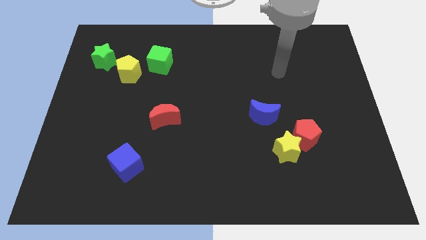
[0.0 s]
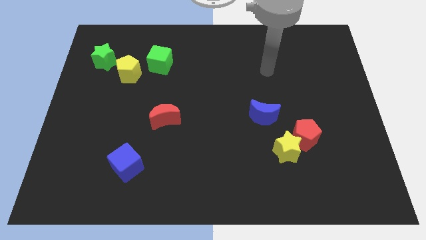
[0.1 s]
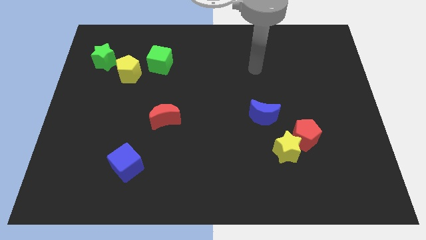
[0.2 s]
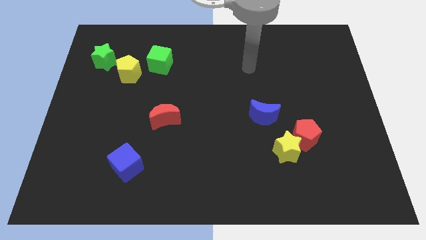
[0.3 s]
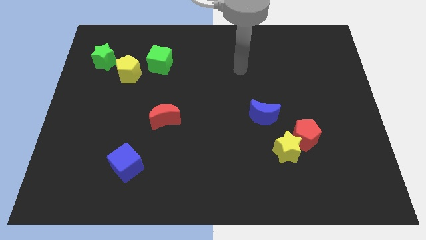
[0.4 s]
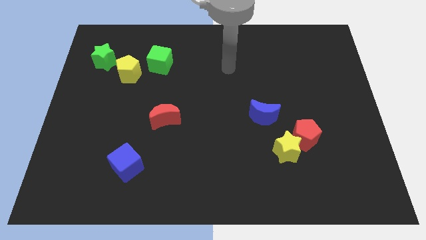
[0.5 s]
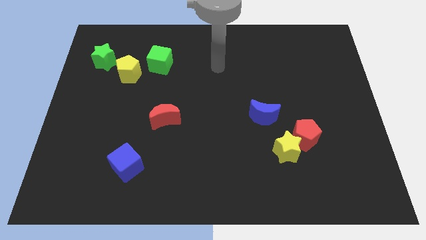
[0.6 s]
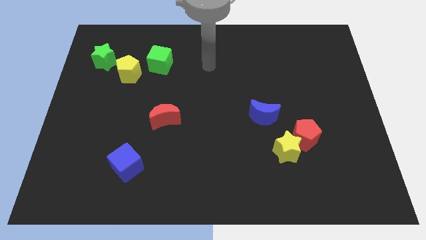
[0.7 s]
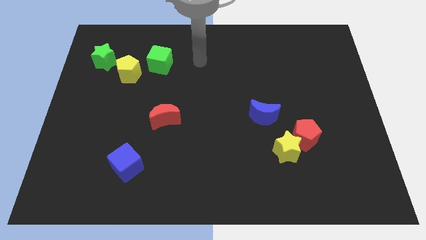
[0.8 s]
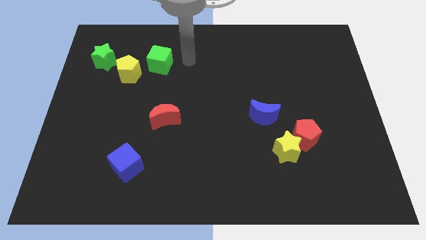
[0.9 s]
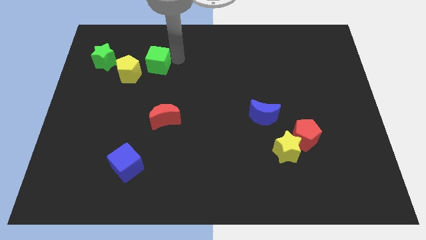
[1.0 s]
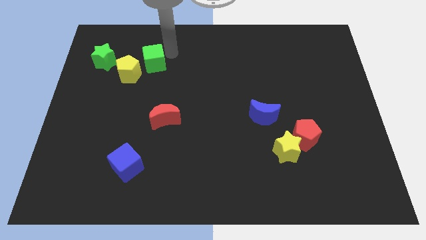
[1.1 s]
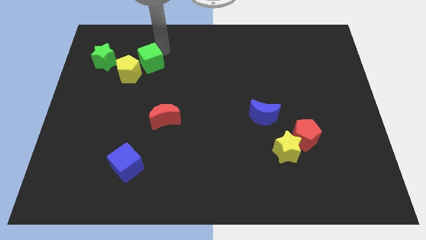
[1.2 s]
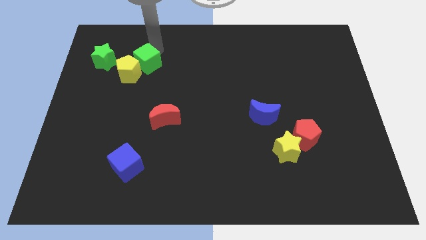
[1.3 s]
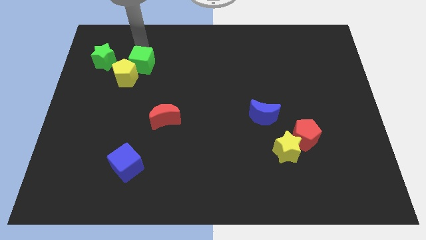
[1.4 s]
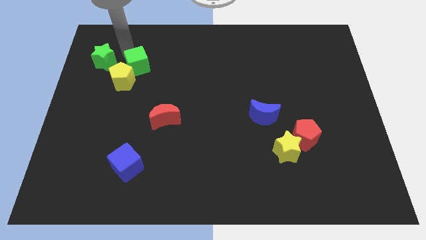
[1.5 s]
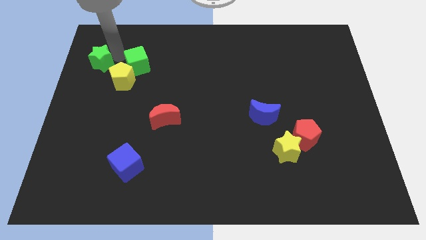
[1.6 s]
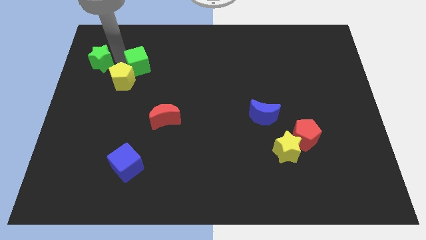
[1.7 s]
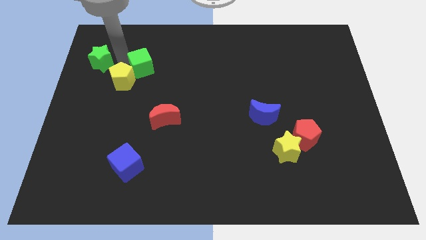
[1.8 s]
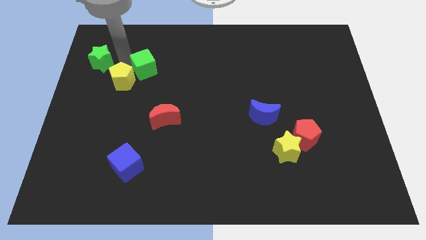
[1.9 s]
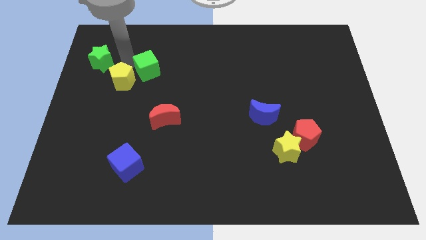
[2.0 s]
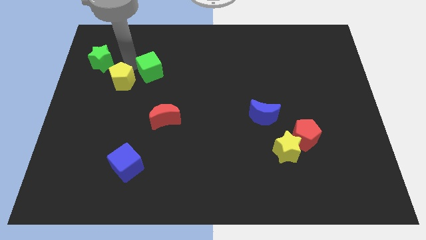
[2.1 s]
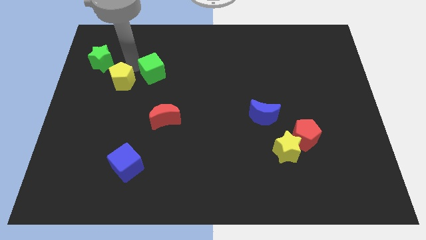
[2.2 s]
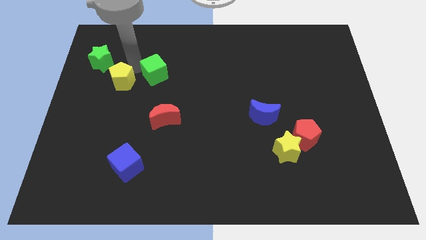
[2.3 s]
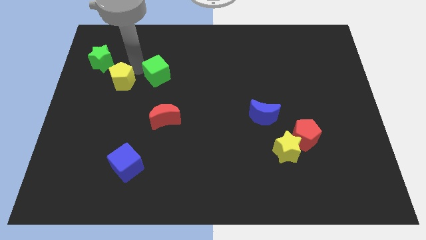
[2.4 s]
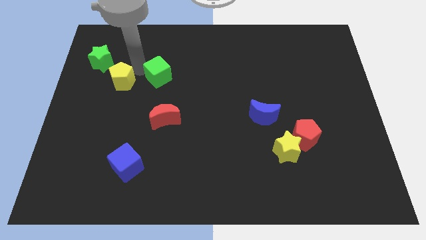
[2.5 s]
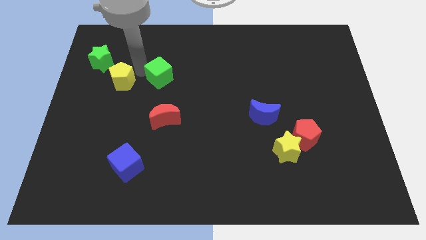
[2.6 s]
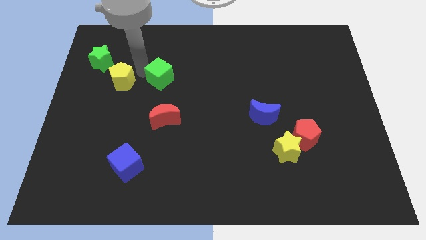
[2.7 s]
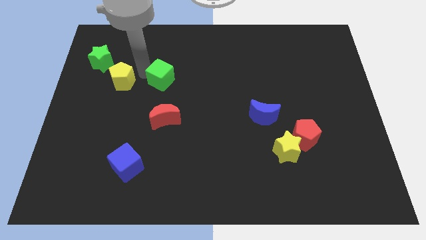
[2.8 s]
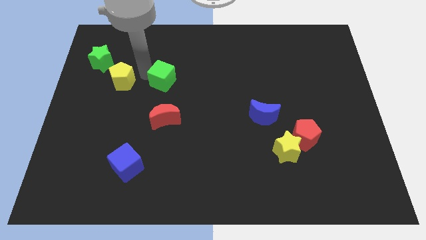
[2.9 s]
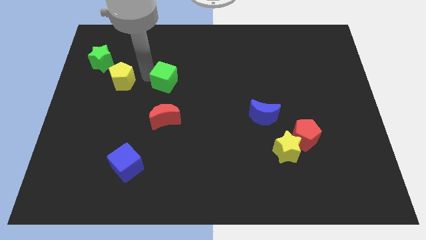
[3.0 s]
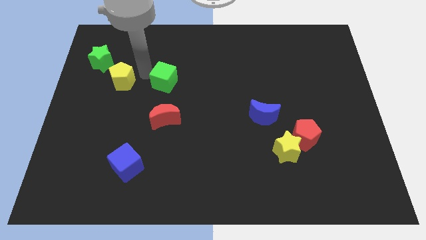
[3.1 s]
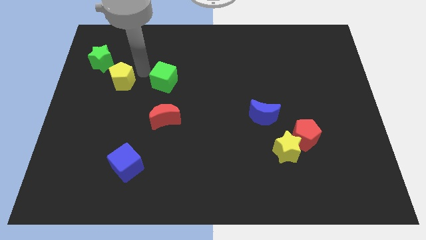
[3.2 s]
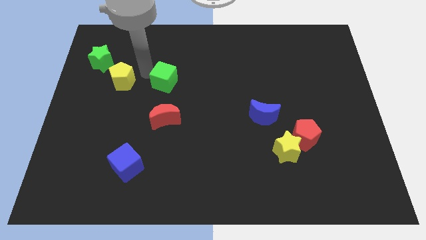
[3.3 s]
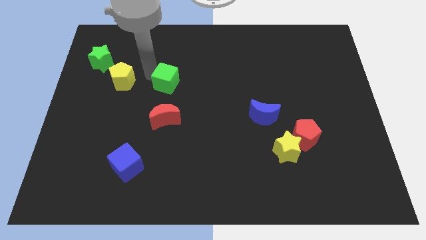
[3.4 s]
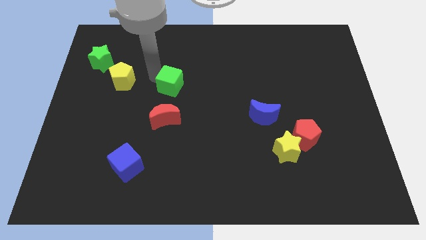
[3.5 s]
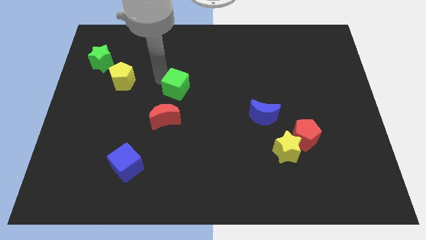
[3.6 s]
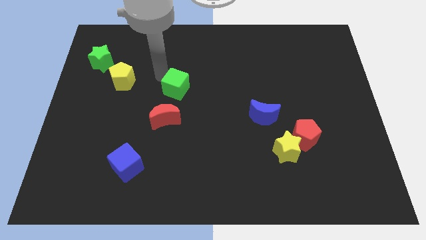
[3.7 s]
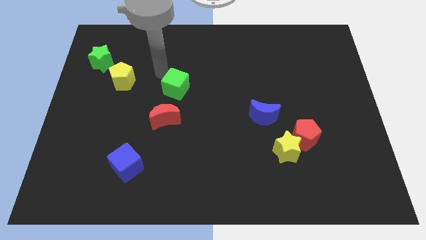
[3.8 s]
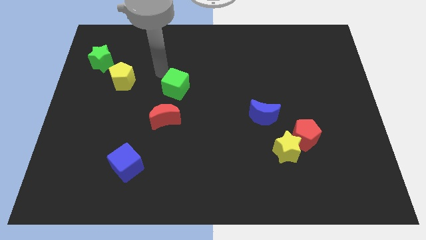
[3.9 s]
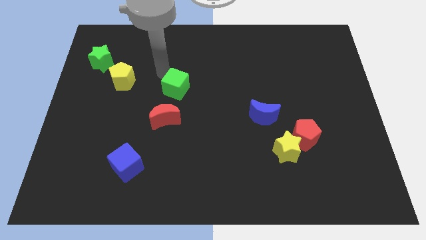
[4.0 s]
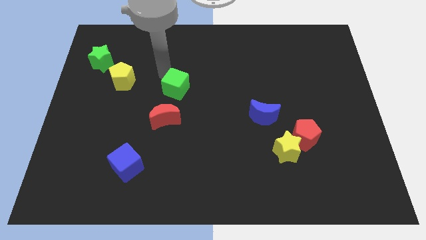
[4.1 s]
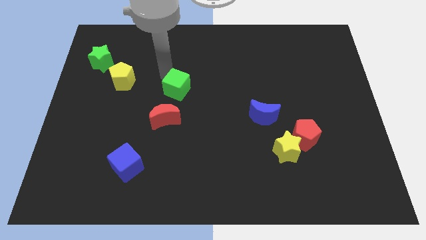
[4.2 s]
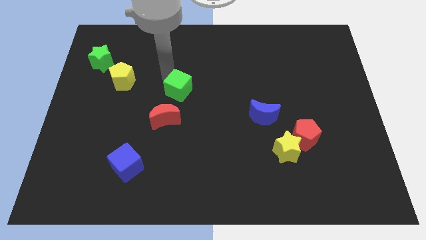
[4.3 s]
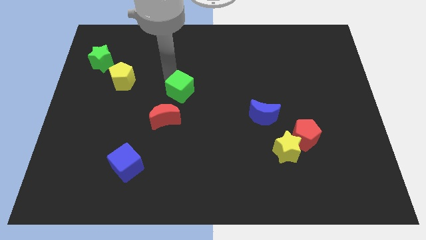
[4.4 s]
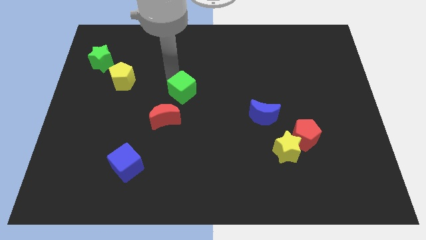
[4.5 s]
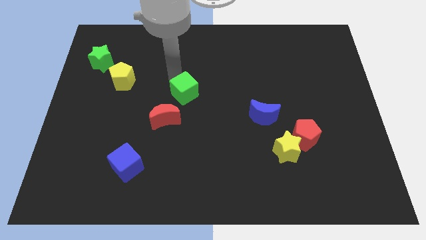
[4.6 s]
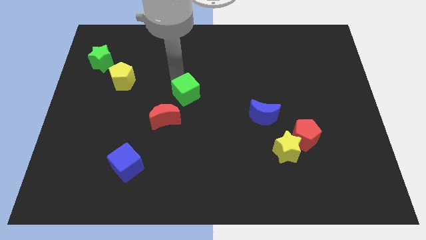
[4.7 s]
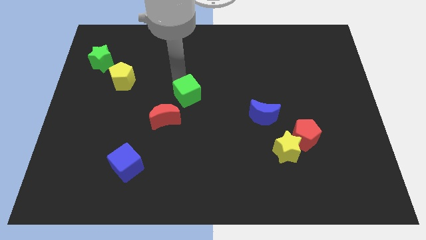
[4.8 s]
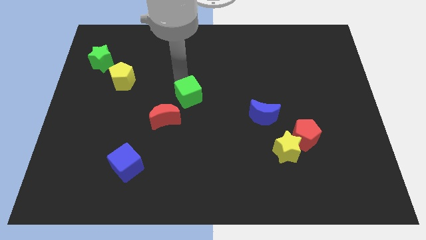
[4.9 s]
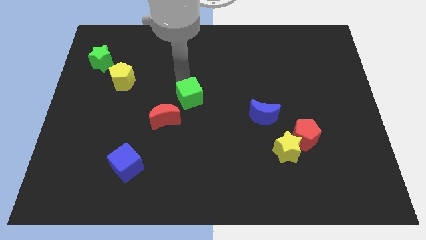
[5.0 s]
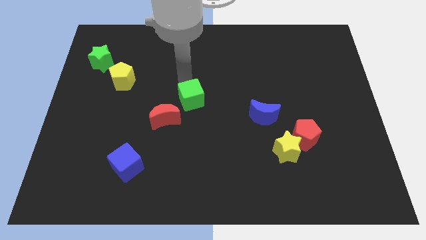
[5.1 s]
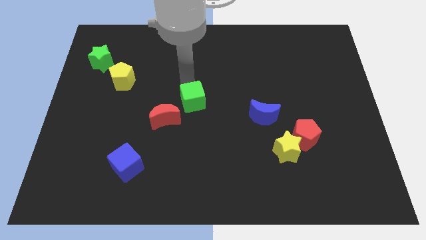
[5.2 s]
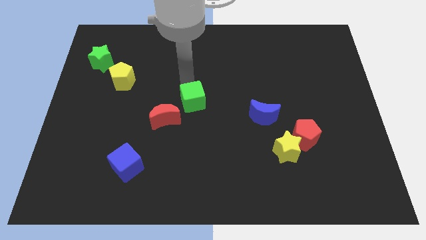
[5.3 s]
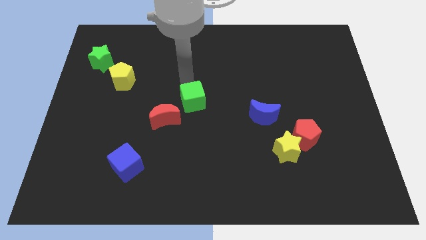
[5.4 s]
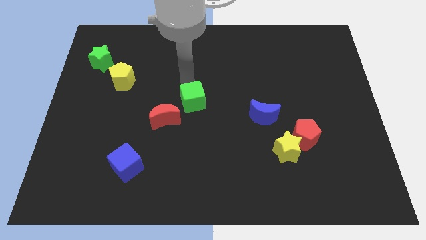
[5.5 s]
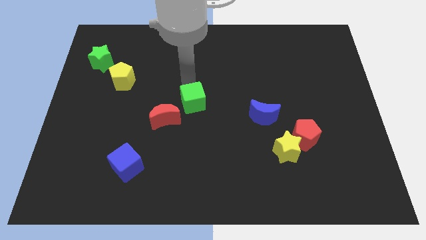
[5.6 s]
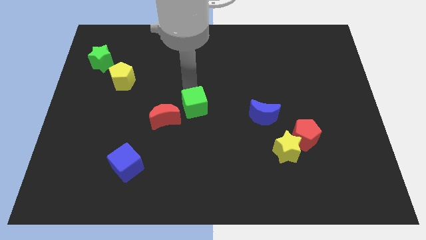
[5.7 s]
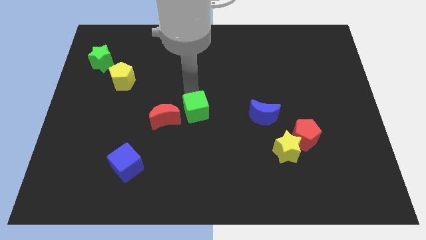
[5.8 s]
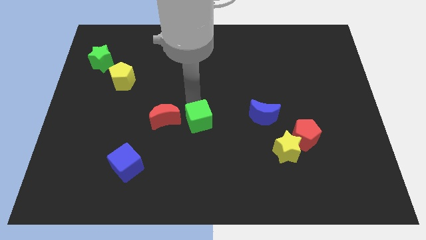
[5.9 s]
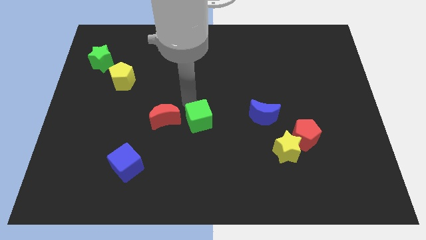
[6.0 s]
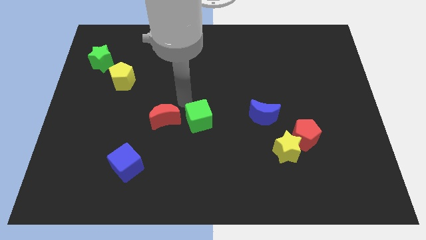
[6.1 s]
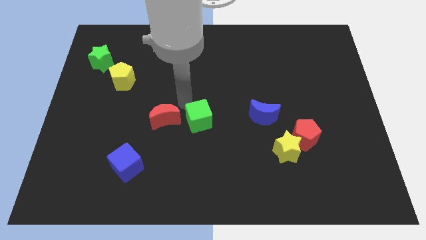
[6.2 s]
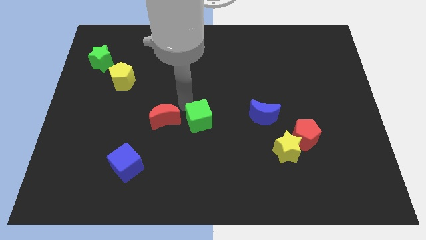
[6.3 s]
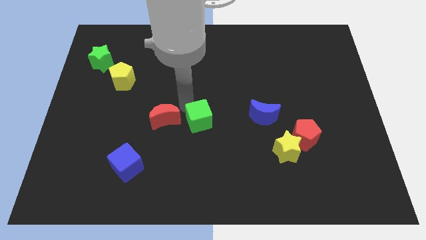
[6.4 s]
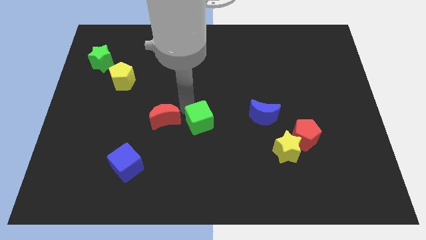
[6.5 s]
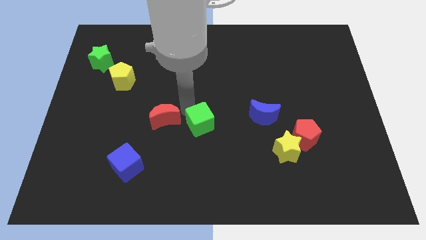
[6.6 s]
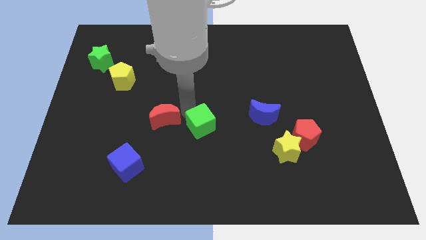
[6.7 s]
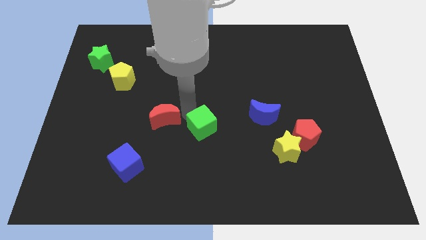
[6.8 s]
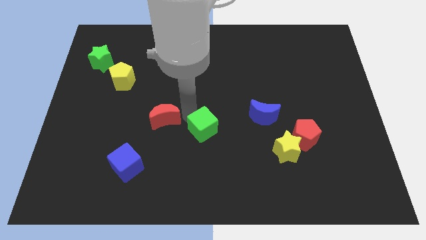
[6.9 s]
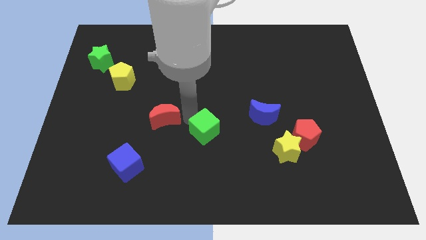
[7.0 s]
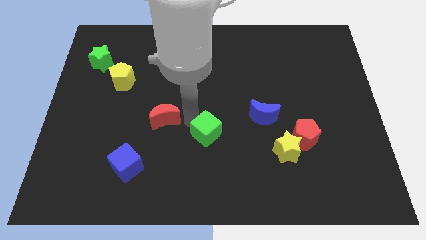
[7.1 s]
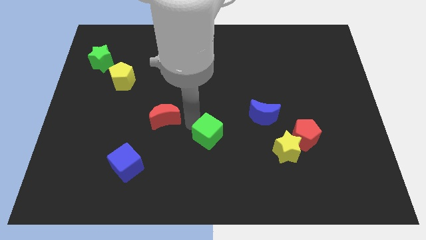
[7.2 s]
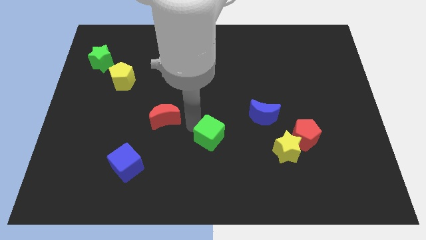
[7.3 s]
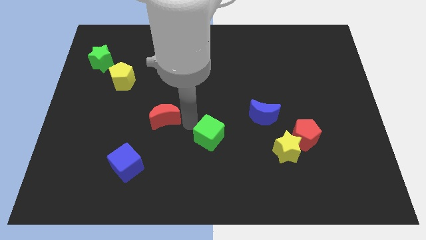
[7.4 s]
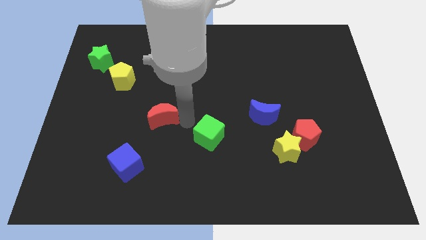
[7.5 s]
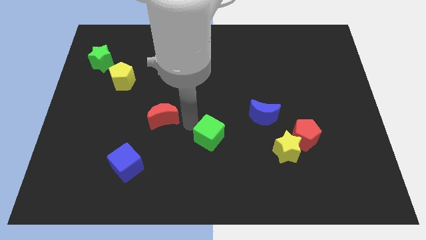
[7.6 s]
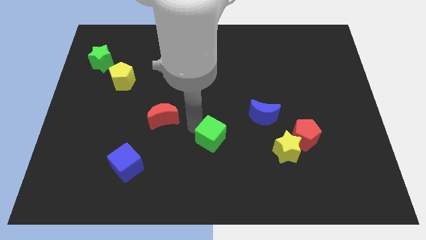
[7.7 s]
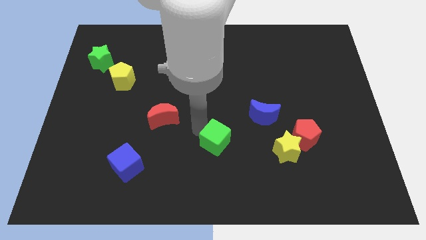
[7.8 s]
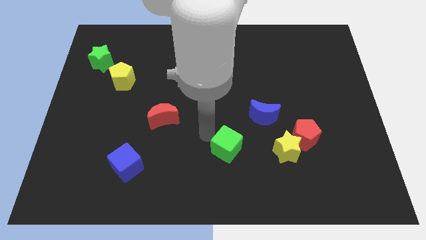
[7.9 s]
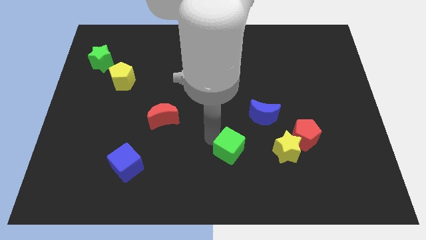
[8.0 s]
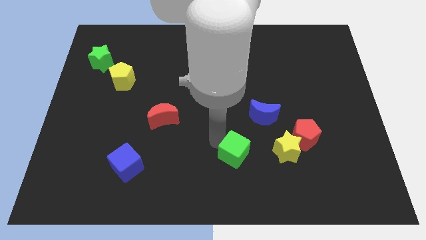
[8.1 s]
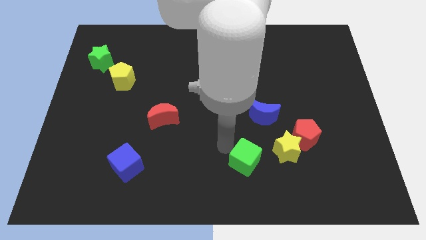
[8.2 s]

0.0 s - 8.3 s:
put the green cube to the bottom left of the yellow star
